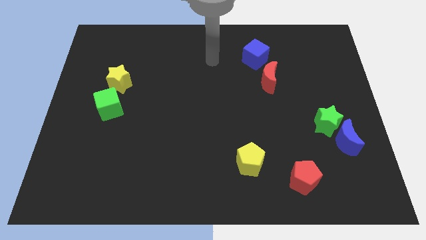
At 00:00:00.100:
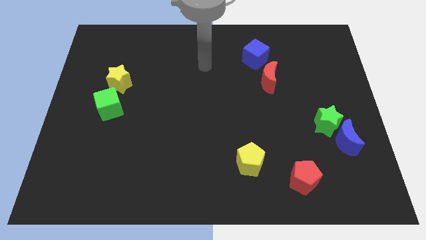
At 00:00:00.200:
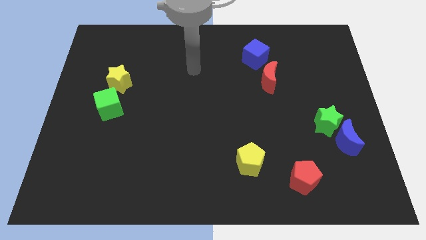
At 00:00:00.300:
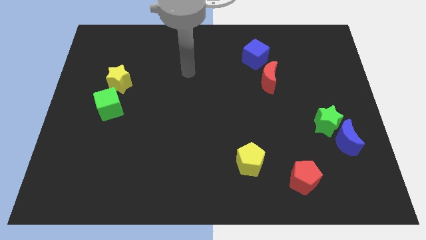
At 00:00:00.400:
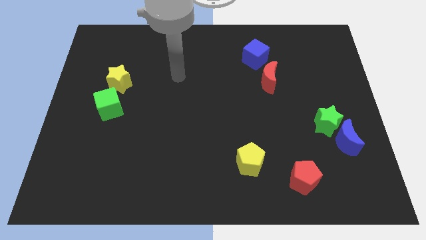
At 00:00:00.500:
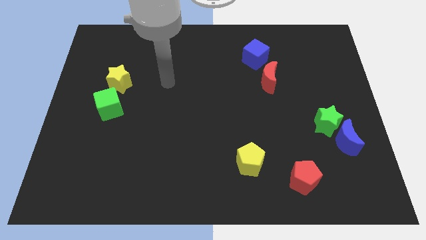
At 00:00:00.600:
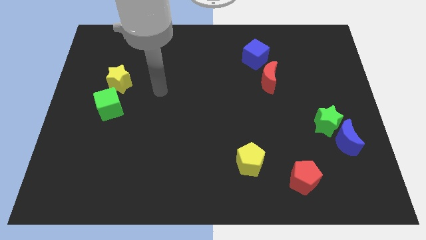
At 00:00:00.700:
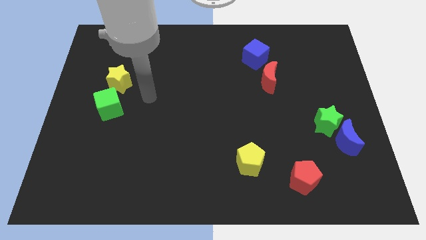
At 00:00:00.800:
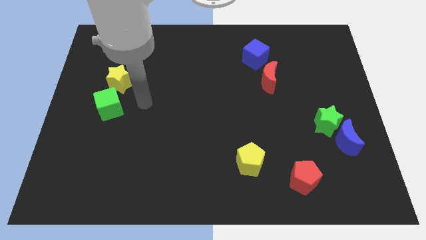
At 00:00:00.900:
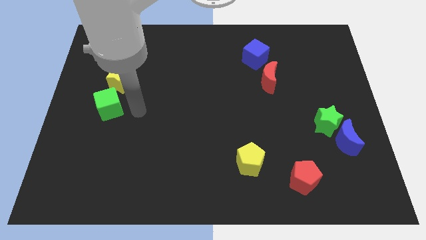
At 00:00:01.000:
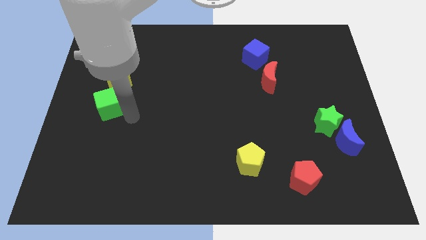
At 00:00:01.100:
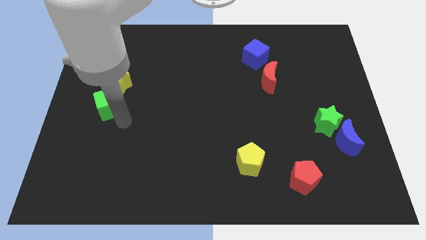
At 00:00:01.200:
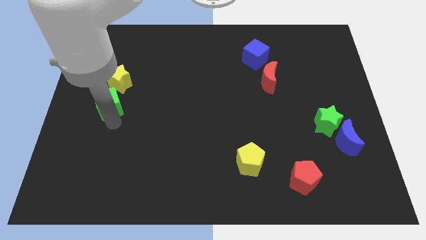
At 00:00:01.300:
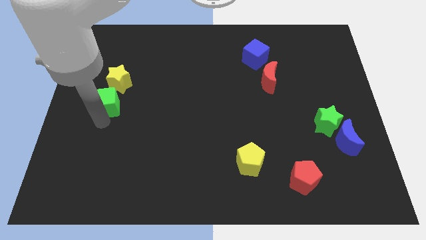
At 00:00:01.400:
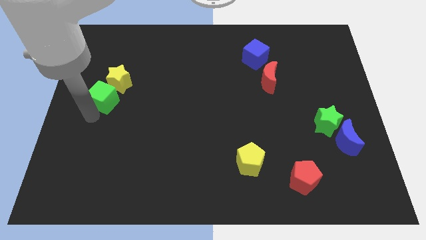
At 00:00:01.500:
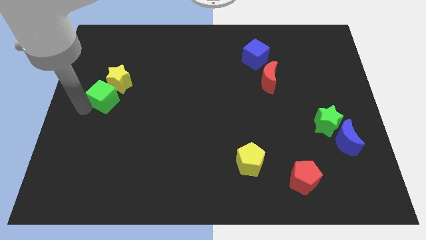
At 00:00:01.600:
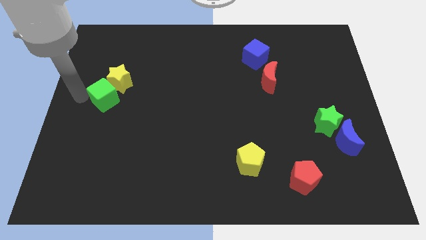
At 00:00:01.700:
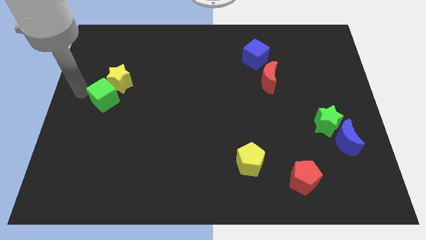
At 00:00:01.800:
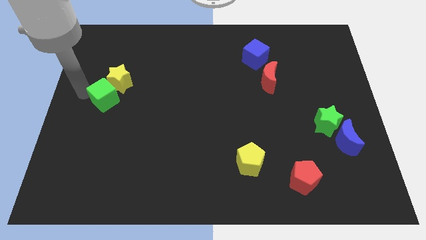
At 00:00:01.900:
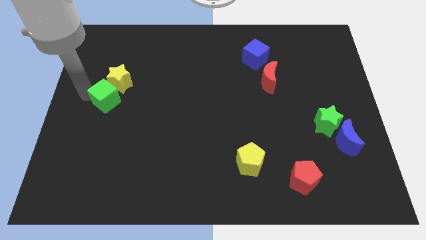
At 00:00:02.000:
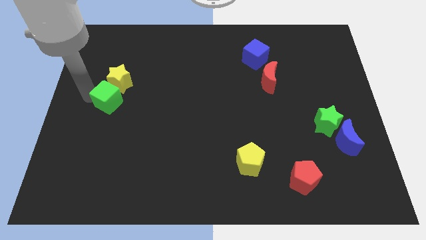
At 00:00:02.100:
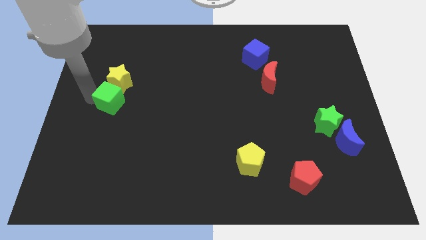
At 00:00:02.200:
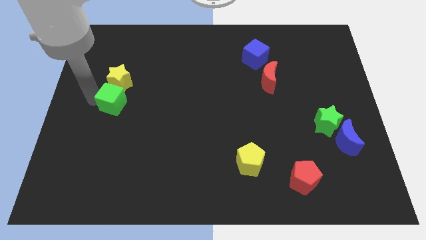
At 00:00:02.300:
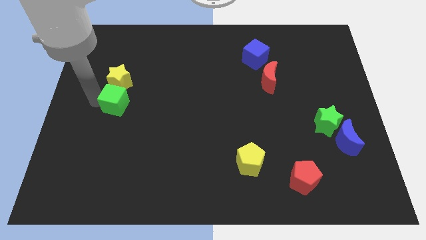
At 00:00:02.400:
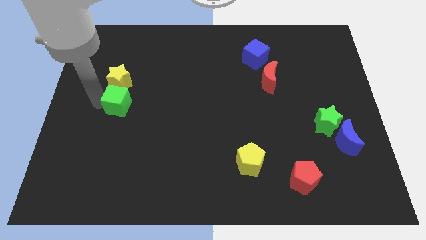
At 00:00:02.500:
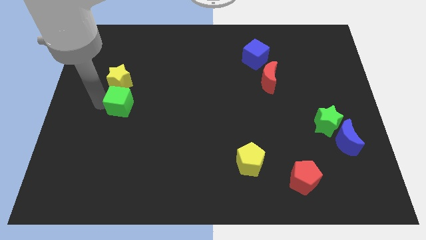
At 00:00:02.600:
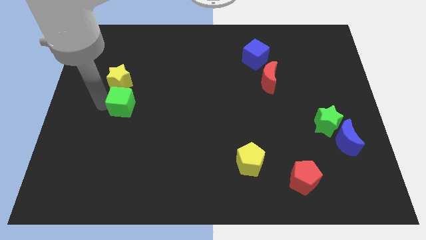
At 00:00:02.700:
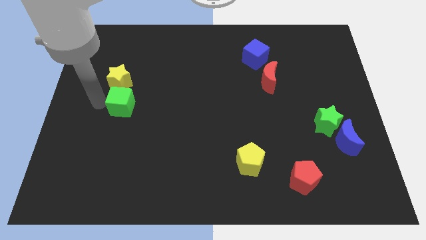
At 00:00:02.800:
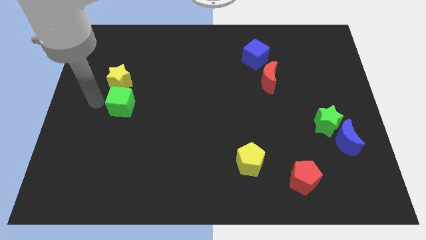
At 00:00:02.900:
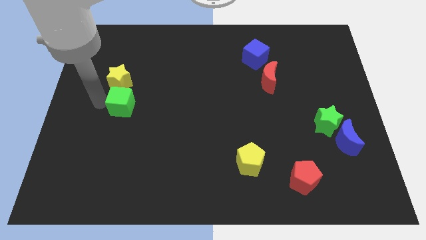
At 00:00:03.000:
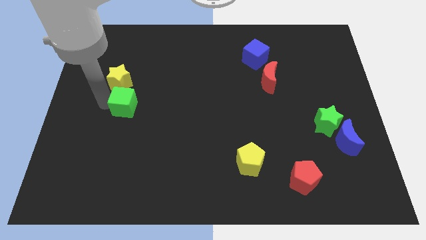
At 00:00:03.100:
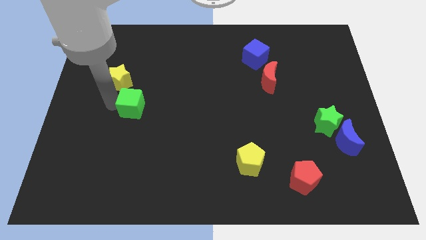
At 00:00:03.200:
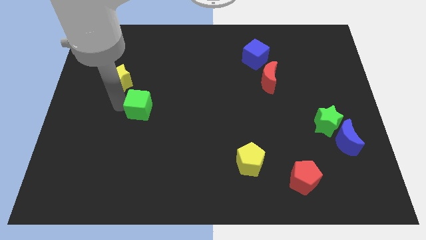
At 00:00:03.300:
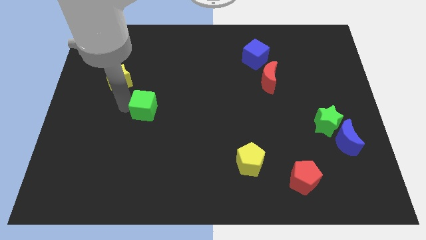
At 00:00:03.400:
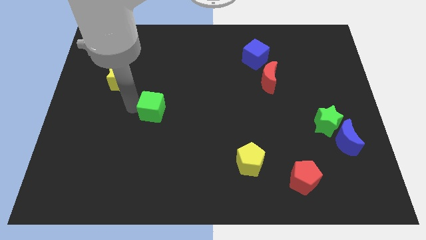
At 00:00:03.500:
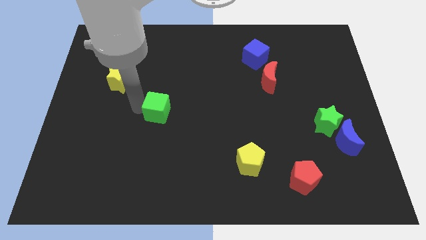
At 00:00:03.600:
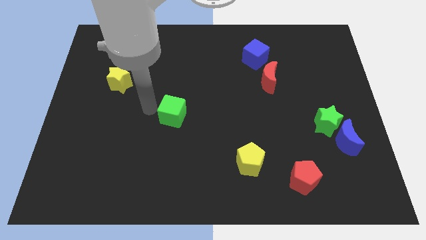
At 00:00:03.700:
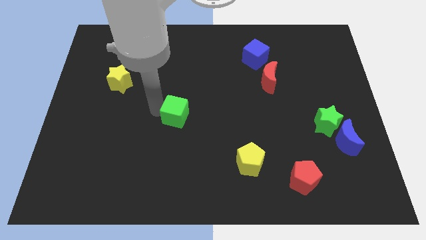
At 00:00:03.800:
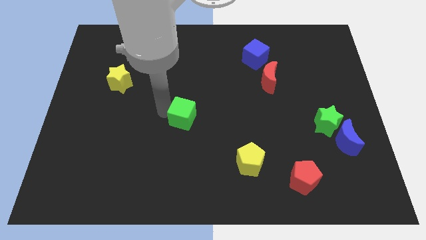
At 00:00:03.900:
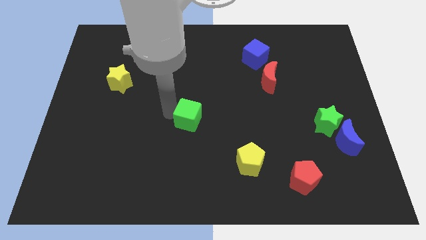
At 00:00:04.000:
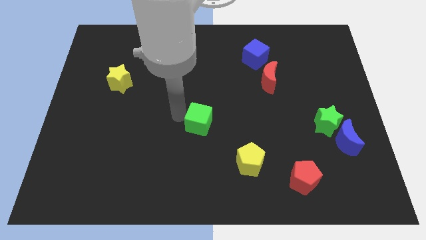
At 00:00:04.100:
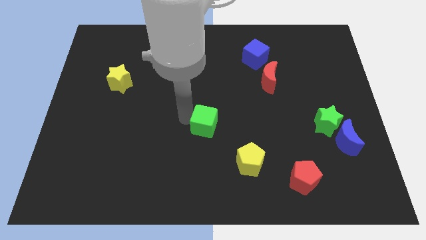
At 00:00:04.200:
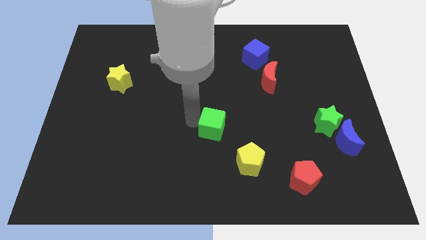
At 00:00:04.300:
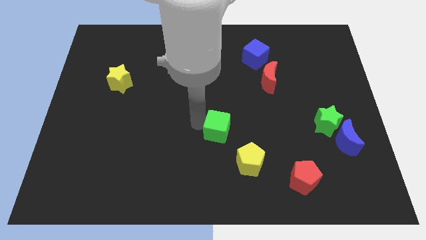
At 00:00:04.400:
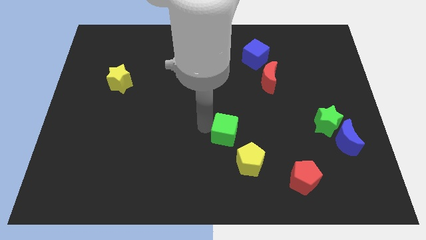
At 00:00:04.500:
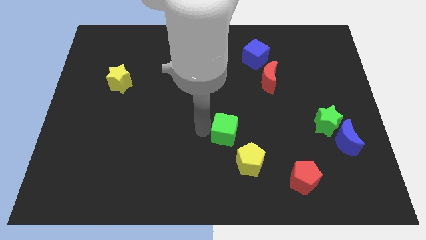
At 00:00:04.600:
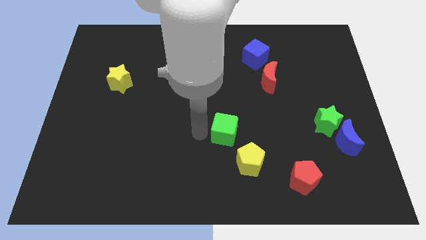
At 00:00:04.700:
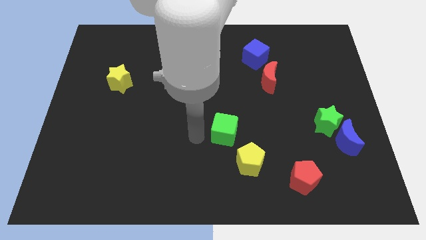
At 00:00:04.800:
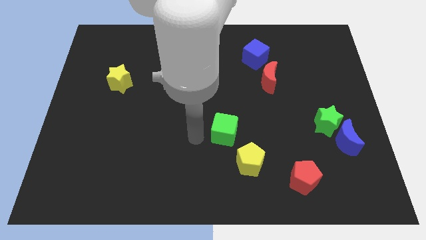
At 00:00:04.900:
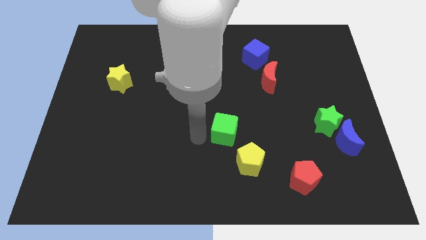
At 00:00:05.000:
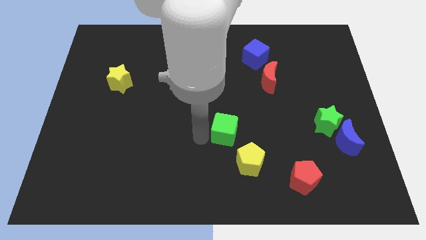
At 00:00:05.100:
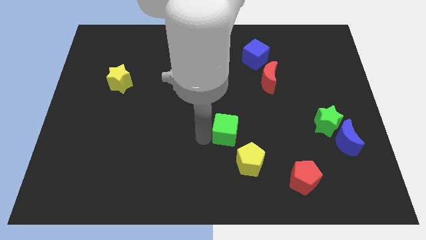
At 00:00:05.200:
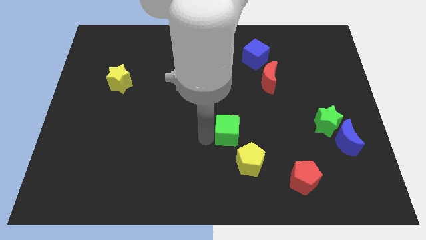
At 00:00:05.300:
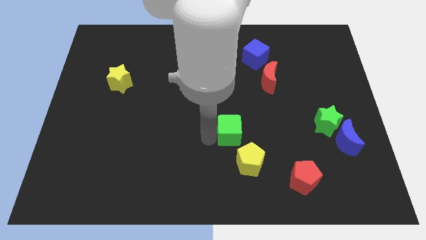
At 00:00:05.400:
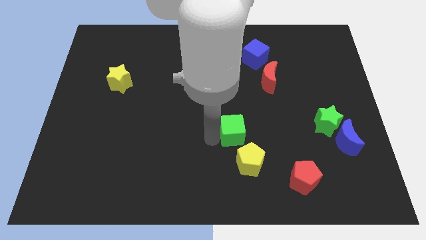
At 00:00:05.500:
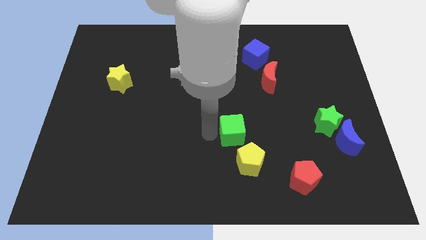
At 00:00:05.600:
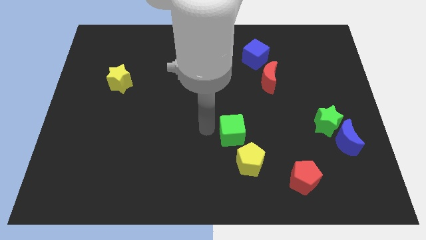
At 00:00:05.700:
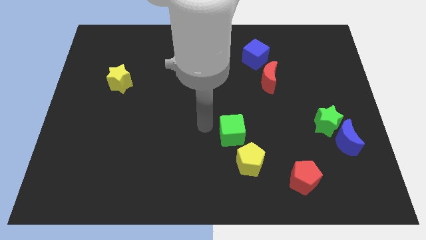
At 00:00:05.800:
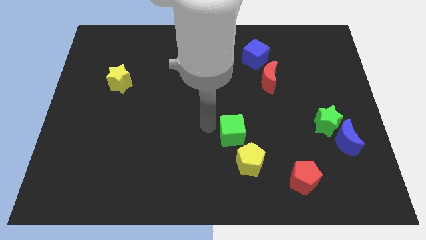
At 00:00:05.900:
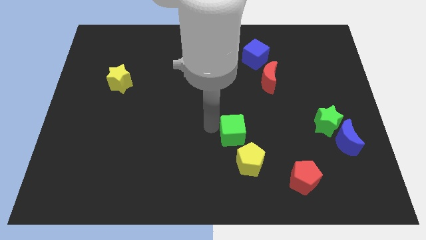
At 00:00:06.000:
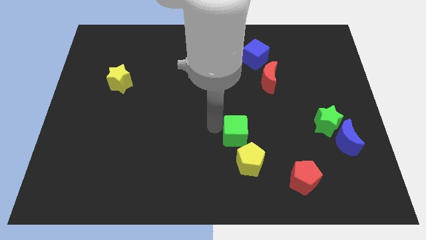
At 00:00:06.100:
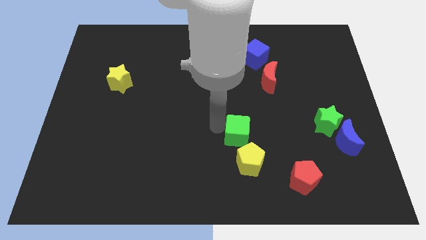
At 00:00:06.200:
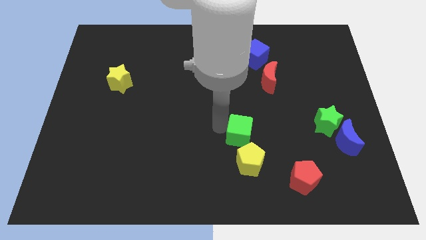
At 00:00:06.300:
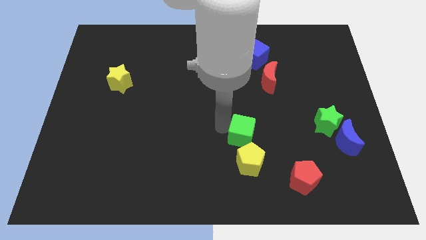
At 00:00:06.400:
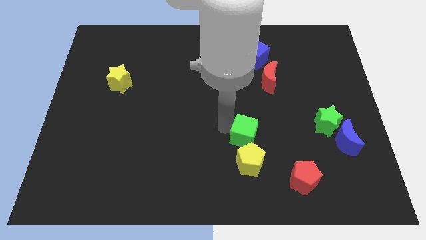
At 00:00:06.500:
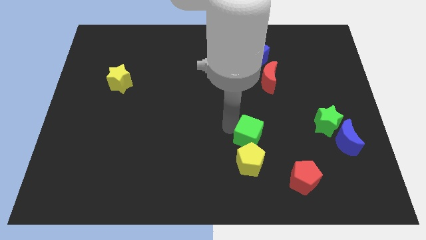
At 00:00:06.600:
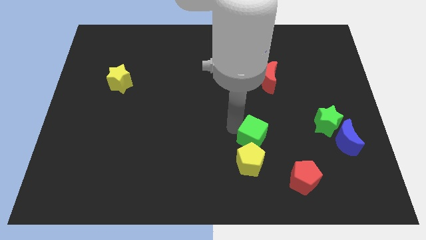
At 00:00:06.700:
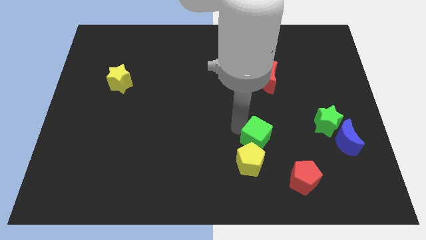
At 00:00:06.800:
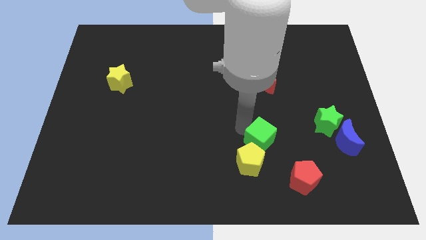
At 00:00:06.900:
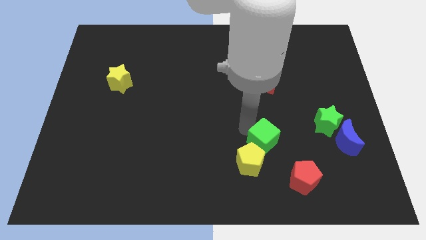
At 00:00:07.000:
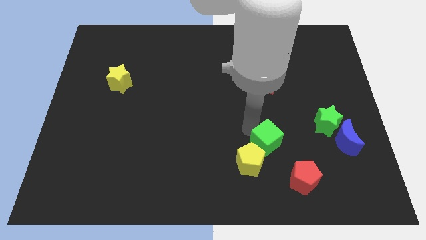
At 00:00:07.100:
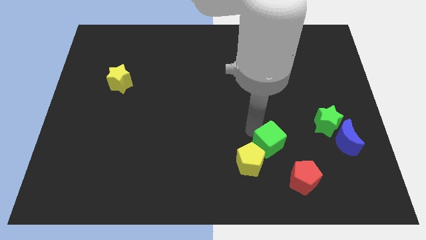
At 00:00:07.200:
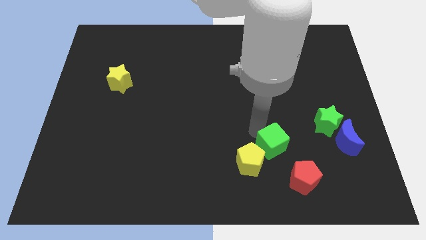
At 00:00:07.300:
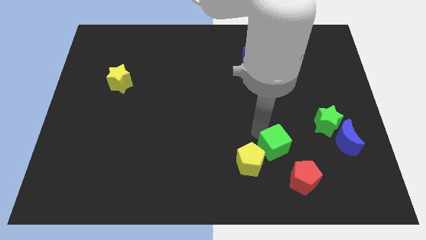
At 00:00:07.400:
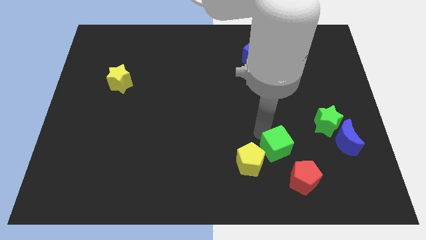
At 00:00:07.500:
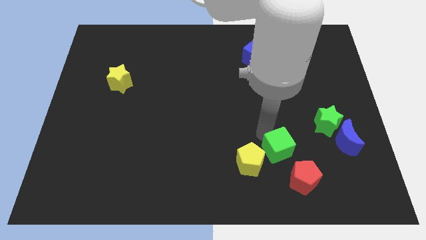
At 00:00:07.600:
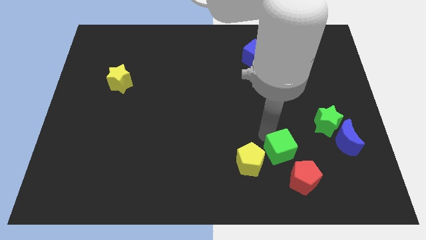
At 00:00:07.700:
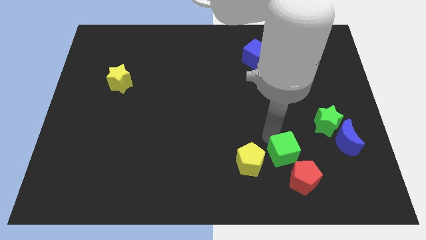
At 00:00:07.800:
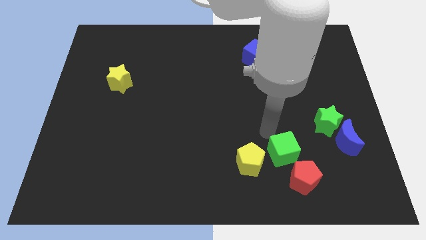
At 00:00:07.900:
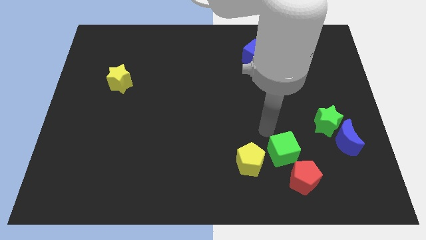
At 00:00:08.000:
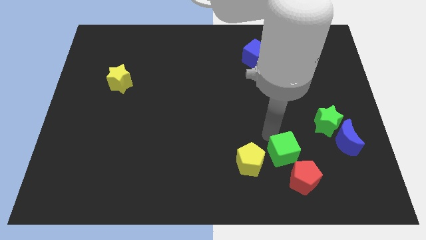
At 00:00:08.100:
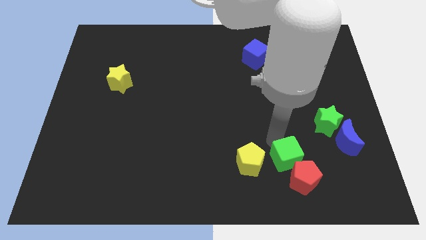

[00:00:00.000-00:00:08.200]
push the green cube to the red pentagon
